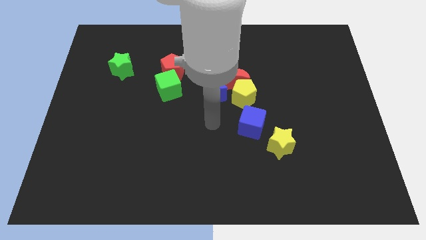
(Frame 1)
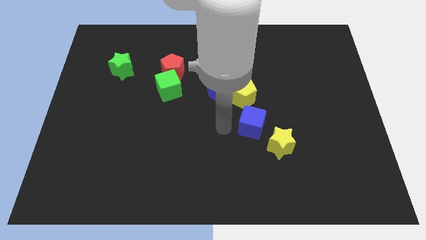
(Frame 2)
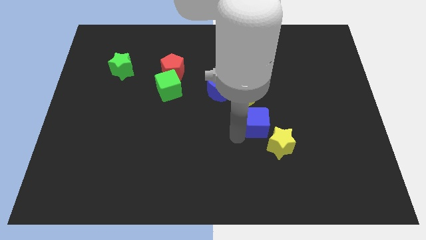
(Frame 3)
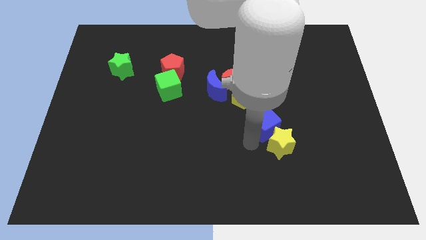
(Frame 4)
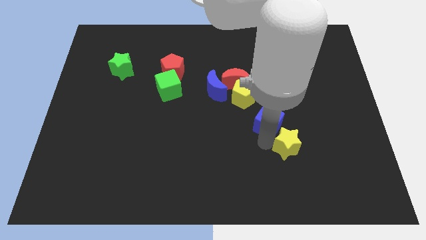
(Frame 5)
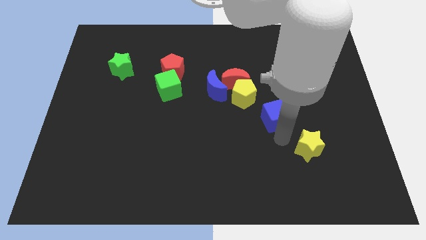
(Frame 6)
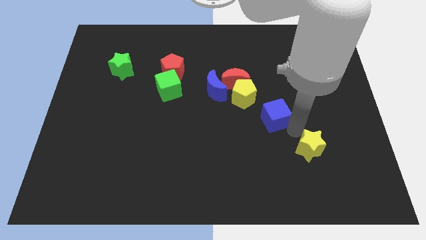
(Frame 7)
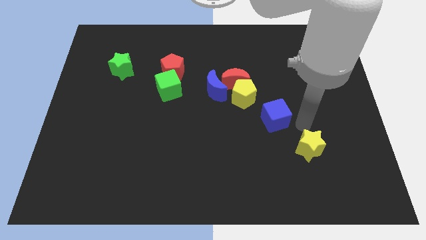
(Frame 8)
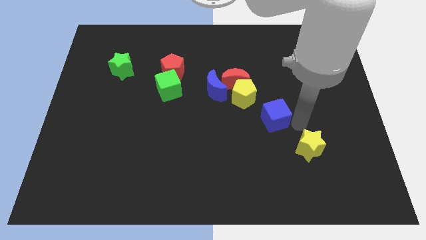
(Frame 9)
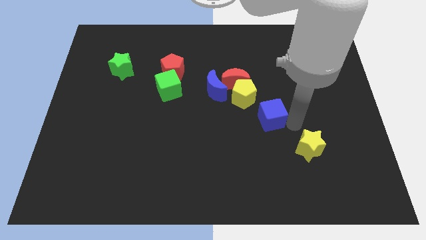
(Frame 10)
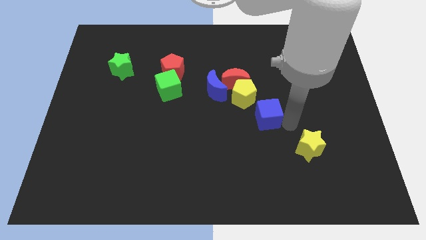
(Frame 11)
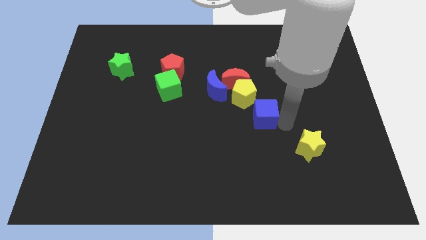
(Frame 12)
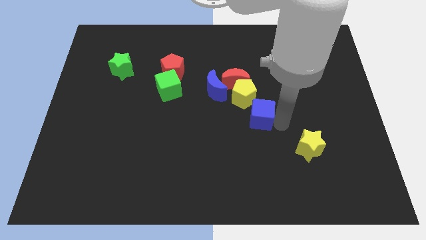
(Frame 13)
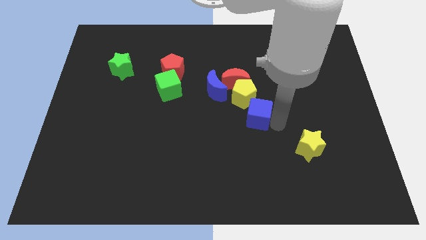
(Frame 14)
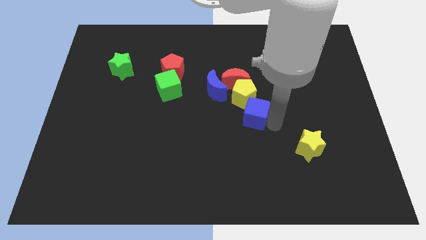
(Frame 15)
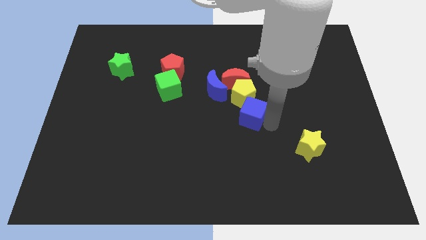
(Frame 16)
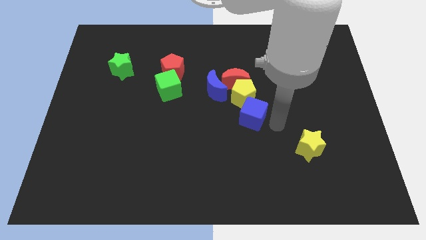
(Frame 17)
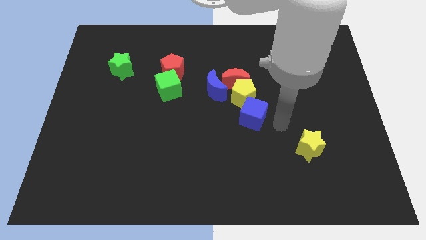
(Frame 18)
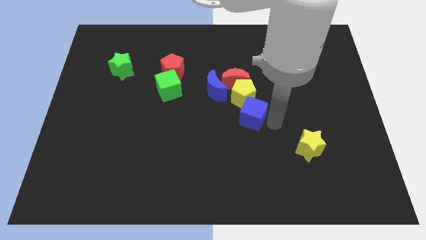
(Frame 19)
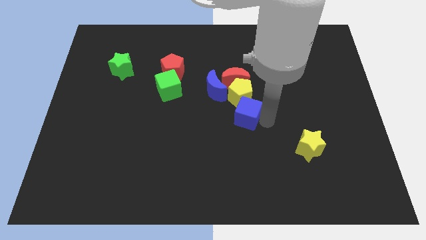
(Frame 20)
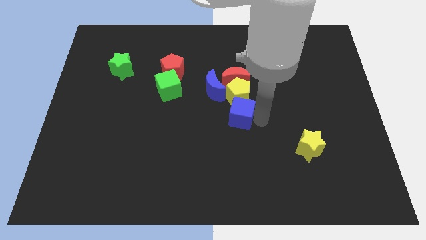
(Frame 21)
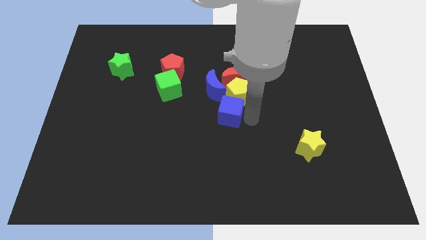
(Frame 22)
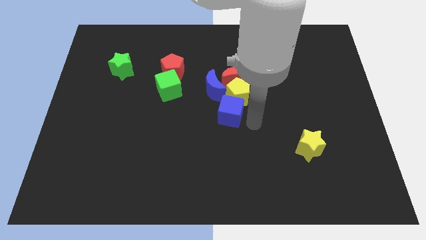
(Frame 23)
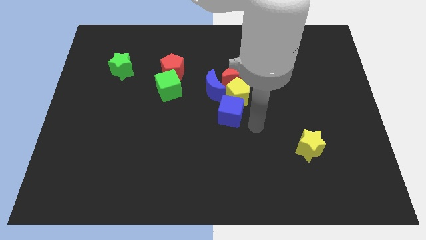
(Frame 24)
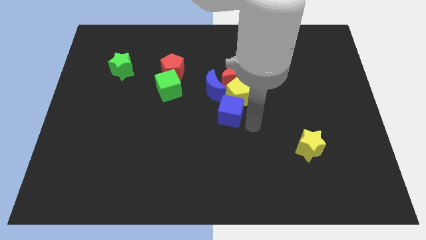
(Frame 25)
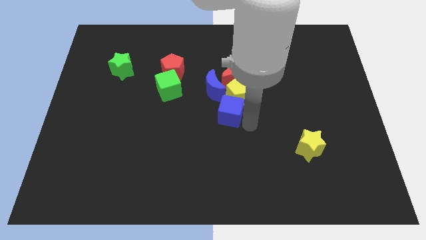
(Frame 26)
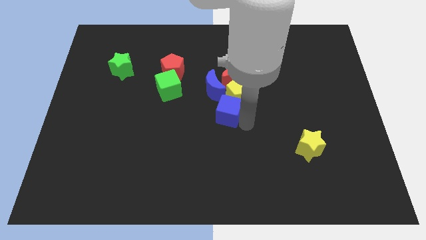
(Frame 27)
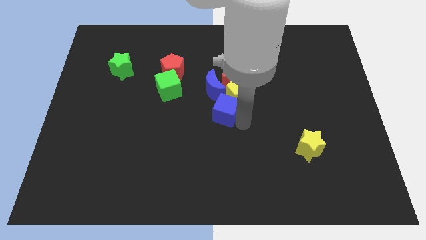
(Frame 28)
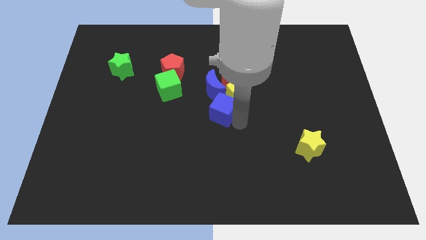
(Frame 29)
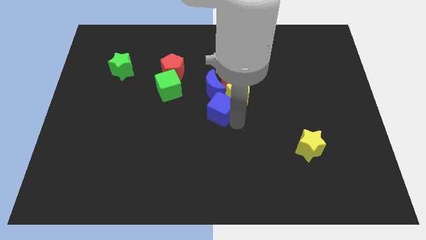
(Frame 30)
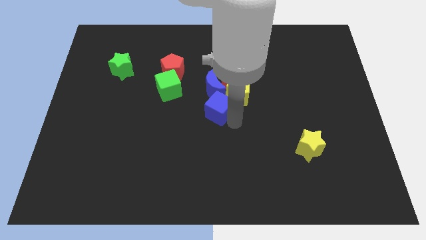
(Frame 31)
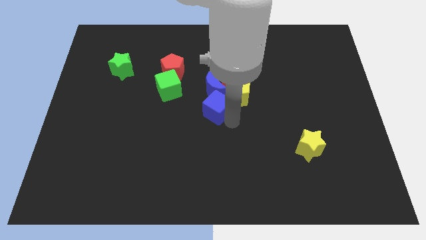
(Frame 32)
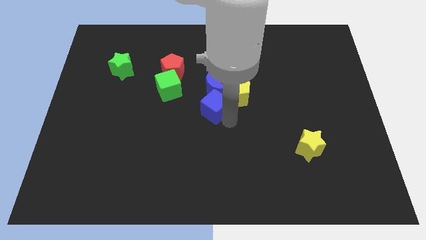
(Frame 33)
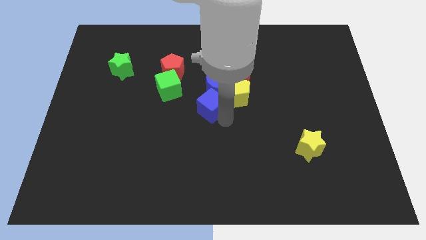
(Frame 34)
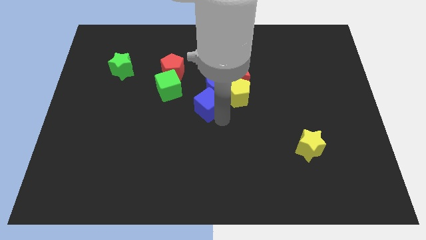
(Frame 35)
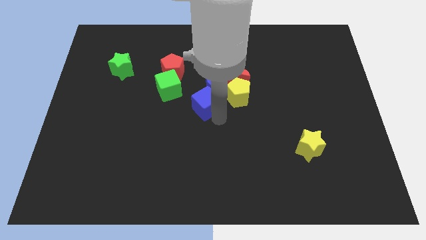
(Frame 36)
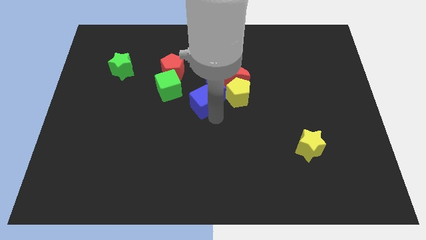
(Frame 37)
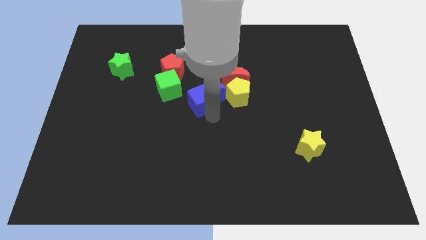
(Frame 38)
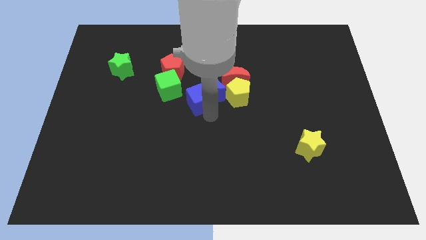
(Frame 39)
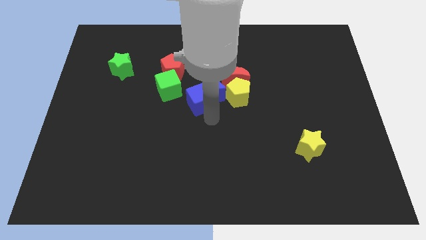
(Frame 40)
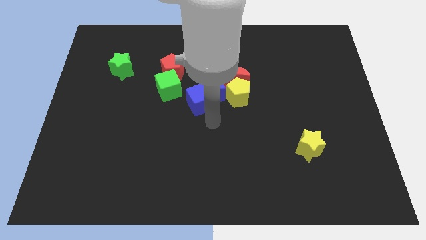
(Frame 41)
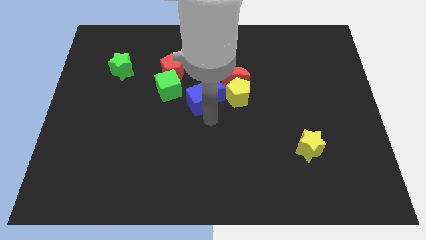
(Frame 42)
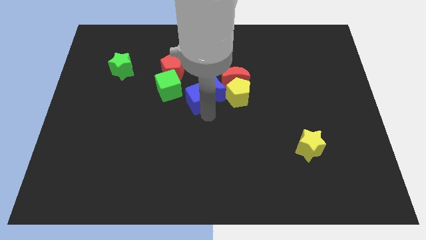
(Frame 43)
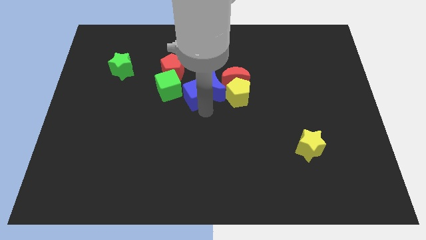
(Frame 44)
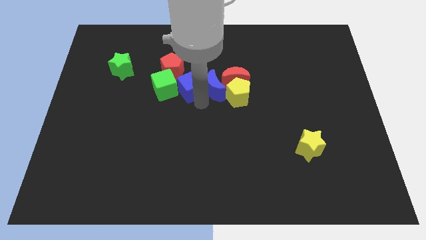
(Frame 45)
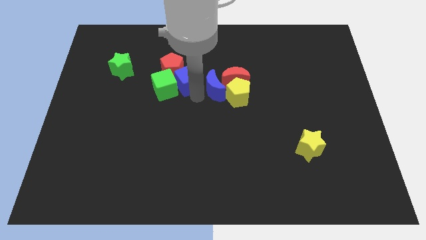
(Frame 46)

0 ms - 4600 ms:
slide the blue cube close to the red pentagon

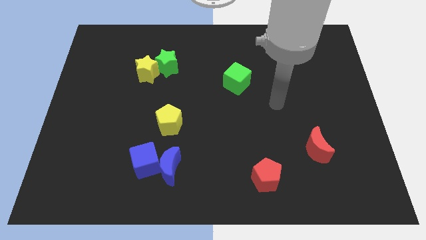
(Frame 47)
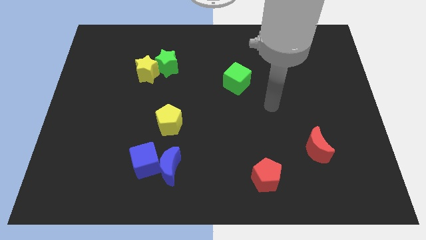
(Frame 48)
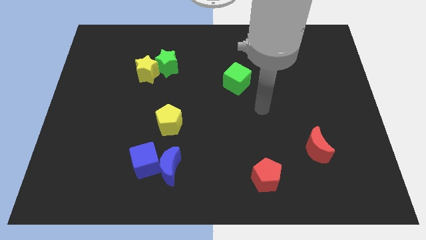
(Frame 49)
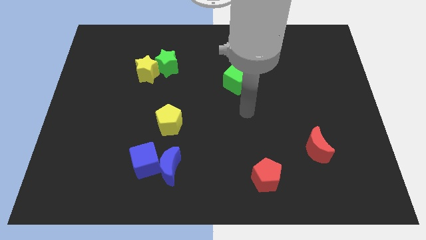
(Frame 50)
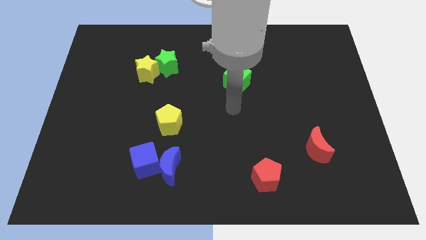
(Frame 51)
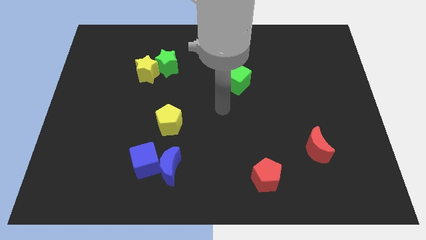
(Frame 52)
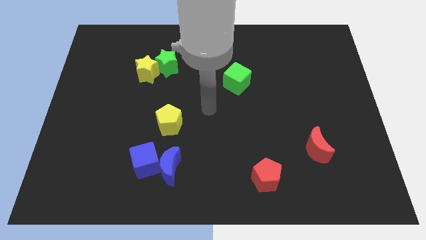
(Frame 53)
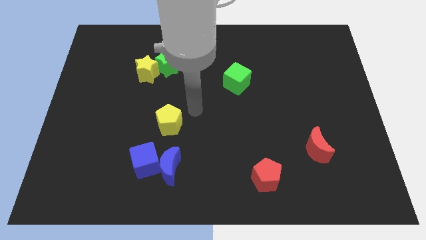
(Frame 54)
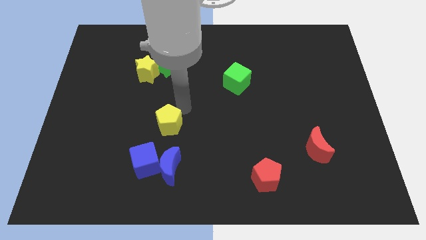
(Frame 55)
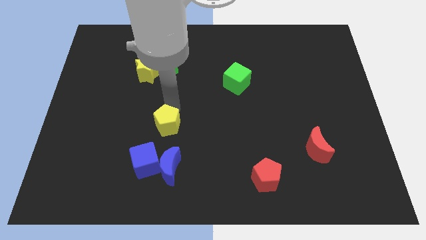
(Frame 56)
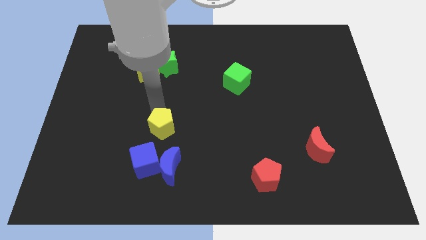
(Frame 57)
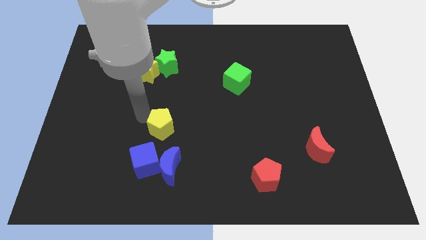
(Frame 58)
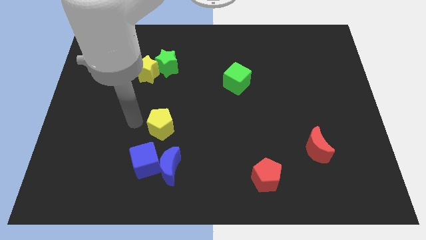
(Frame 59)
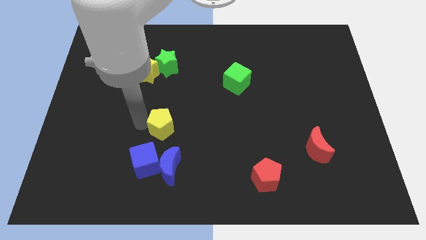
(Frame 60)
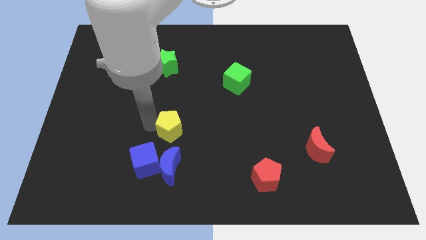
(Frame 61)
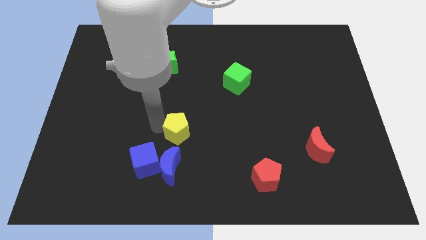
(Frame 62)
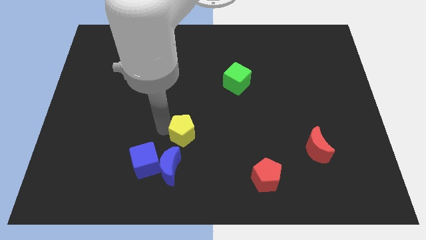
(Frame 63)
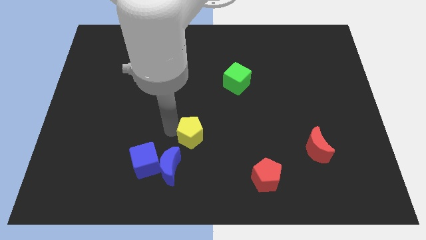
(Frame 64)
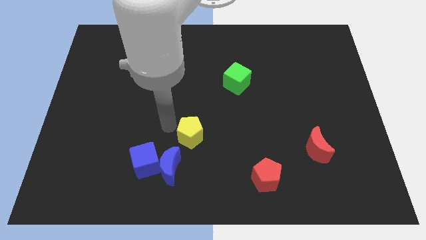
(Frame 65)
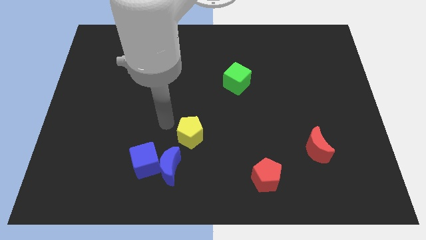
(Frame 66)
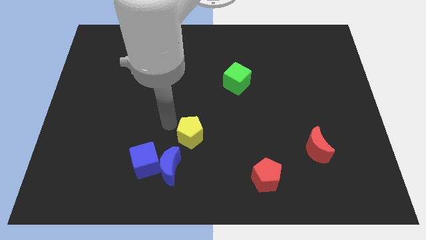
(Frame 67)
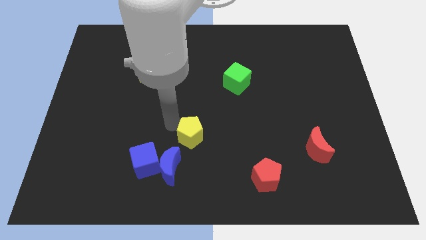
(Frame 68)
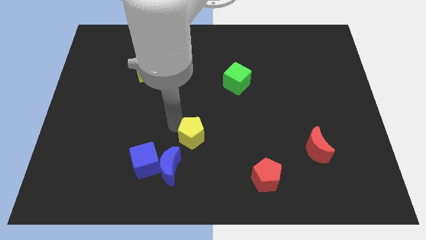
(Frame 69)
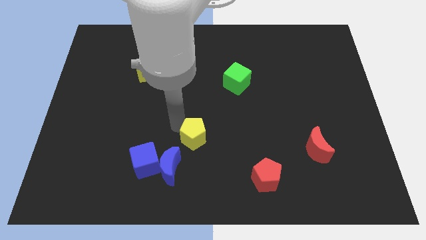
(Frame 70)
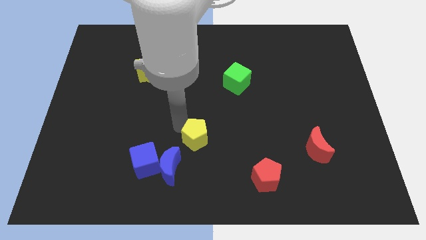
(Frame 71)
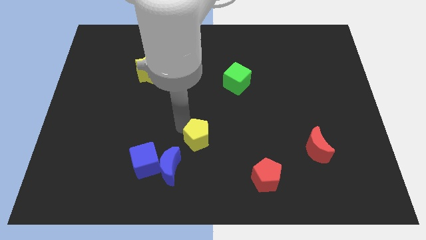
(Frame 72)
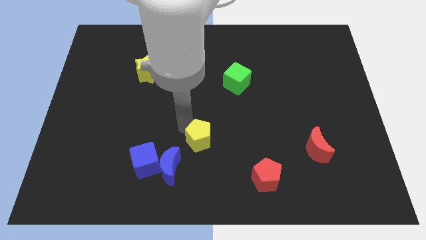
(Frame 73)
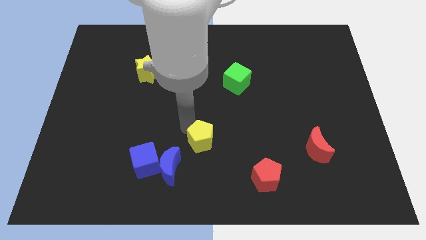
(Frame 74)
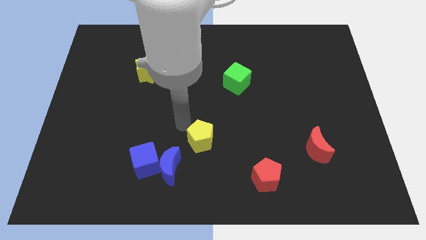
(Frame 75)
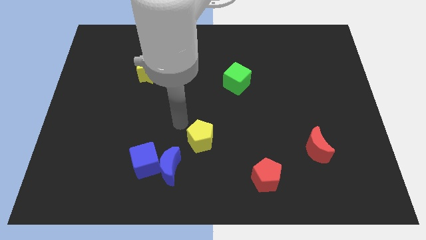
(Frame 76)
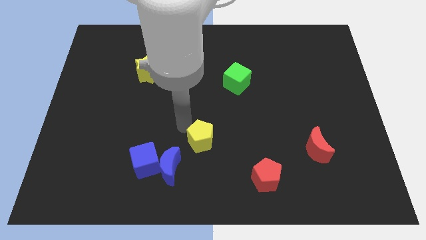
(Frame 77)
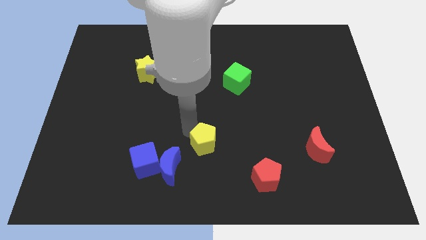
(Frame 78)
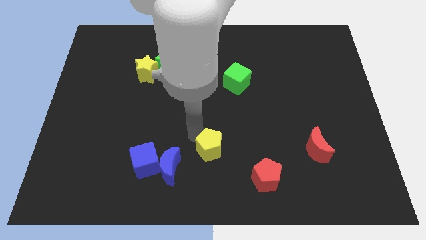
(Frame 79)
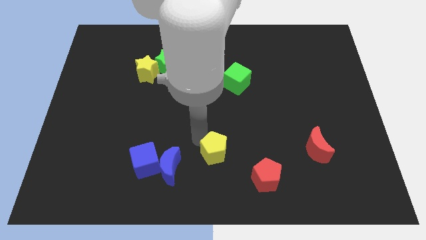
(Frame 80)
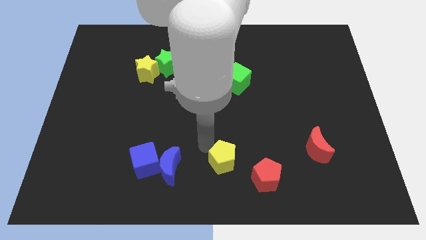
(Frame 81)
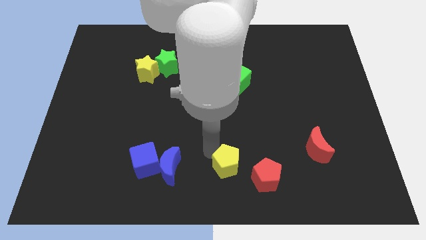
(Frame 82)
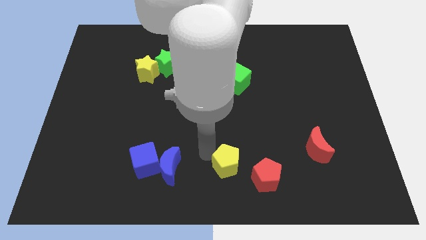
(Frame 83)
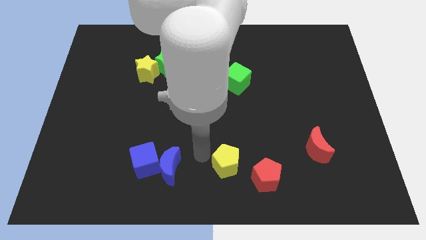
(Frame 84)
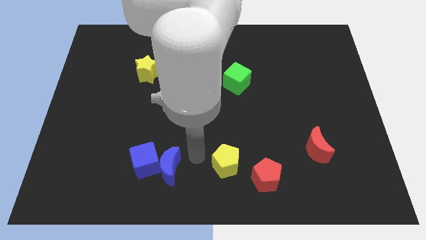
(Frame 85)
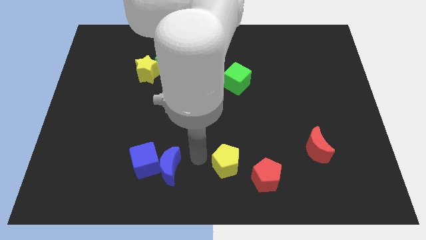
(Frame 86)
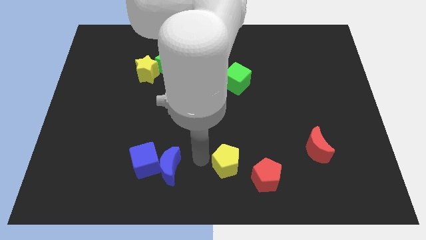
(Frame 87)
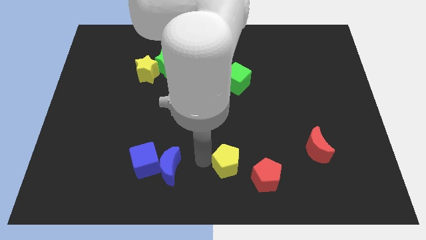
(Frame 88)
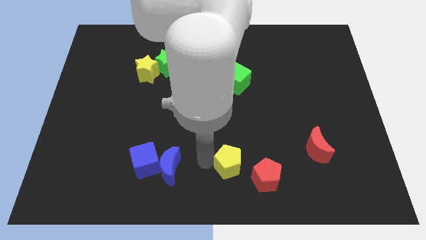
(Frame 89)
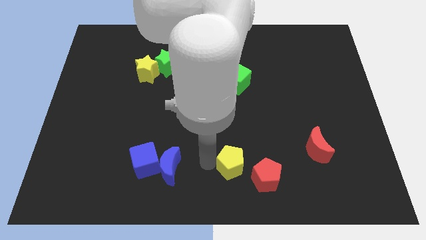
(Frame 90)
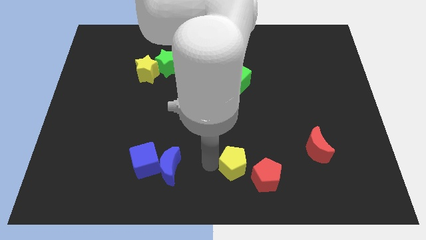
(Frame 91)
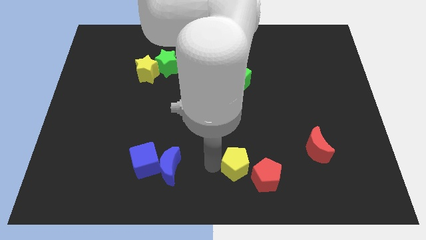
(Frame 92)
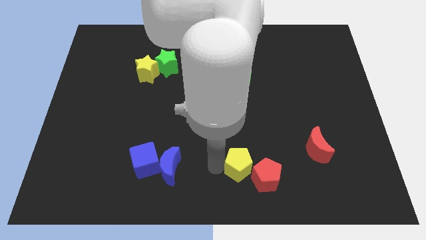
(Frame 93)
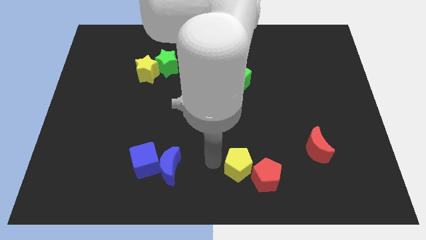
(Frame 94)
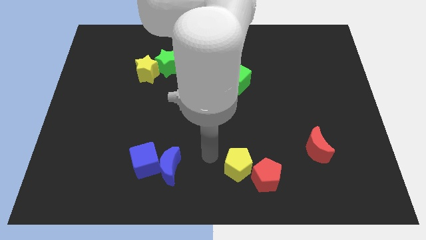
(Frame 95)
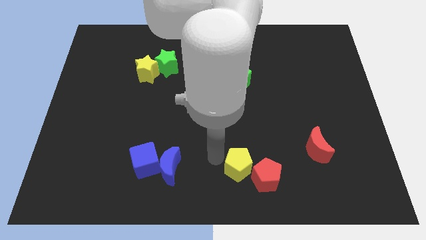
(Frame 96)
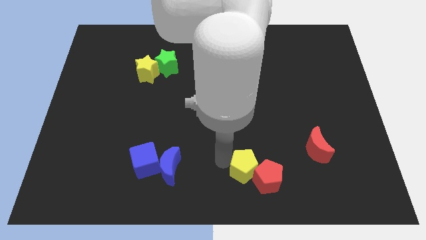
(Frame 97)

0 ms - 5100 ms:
put the yellow pentagon to the red pentagon
